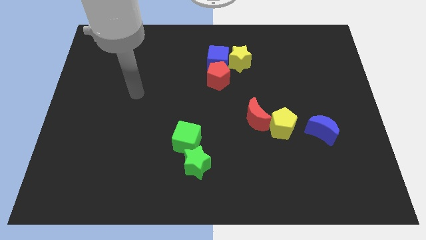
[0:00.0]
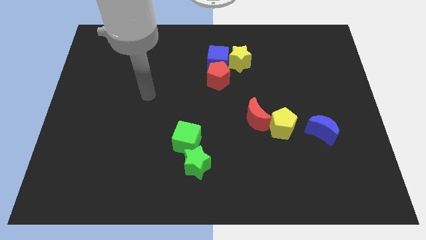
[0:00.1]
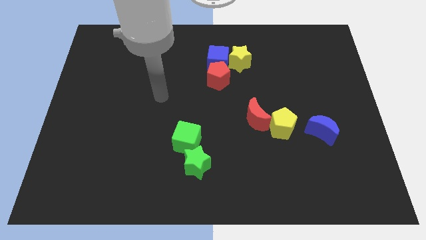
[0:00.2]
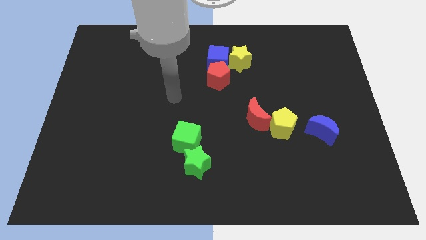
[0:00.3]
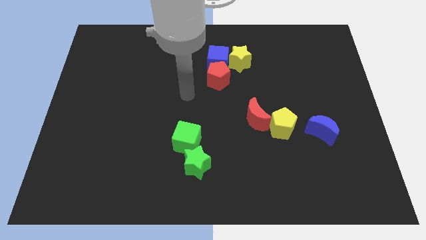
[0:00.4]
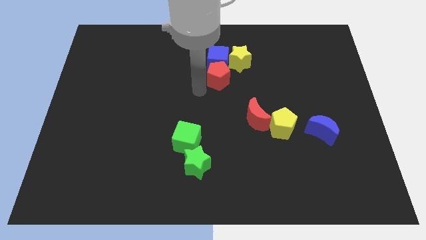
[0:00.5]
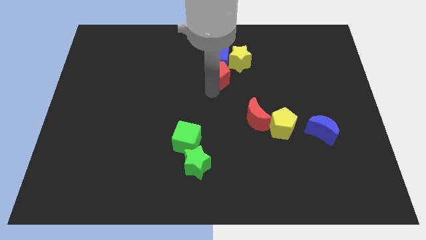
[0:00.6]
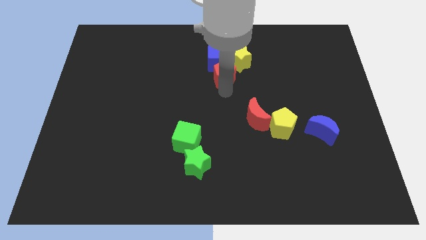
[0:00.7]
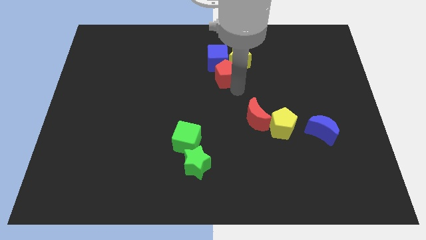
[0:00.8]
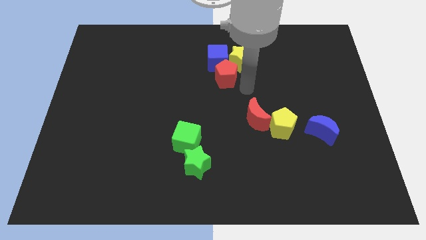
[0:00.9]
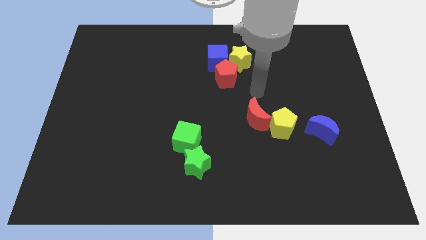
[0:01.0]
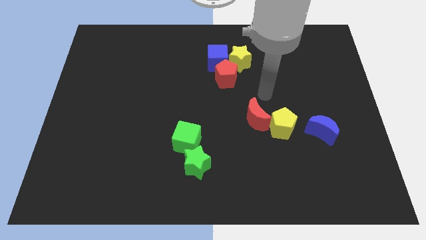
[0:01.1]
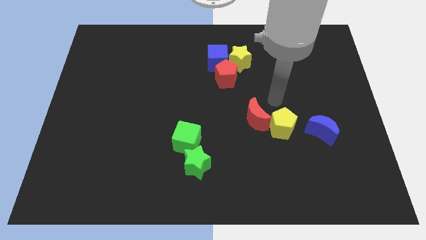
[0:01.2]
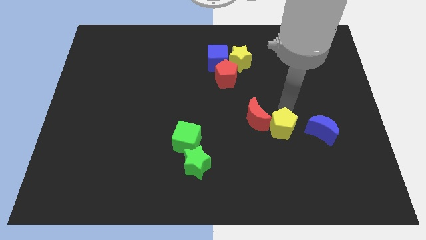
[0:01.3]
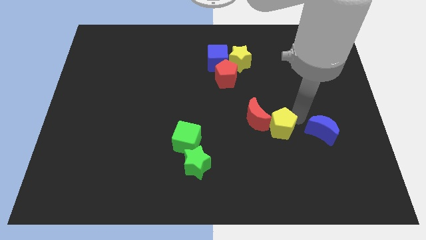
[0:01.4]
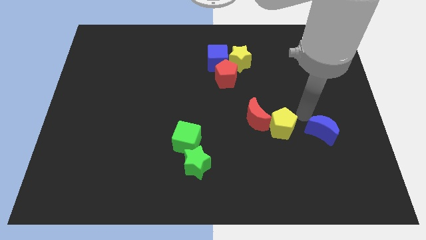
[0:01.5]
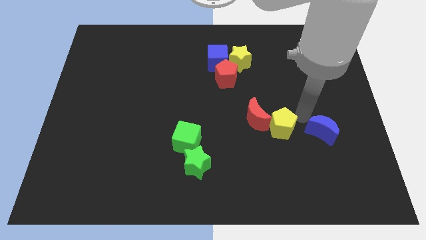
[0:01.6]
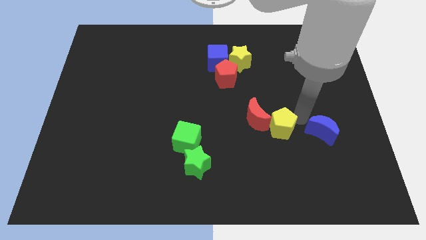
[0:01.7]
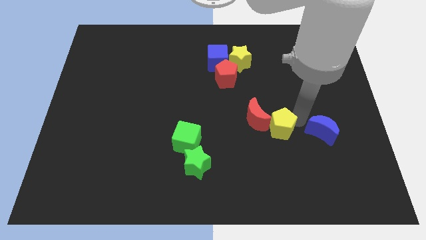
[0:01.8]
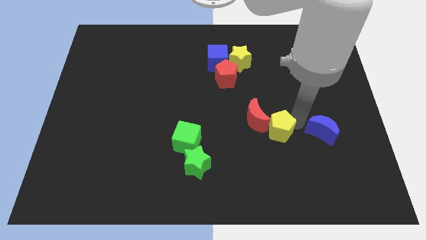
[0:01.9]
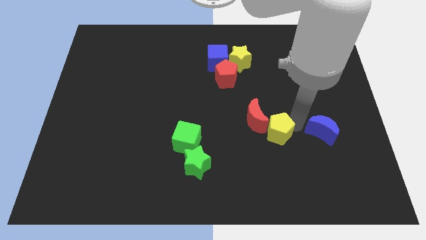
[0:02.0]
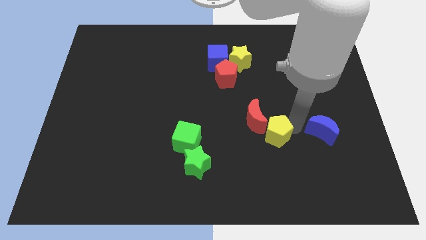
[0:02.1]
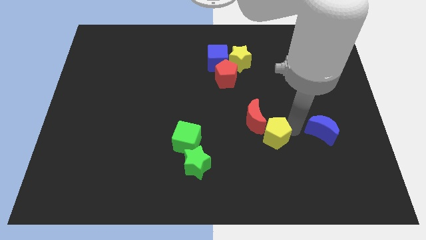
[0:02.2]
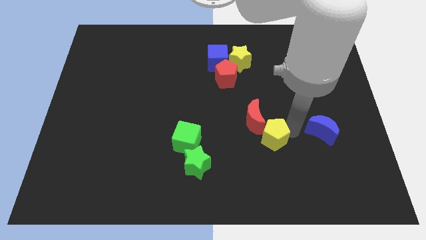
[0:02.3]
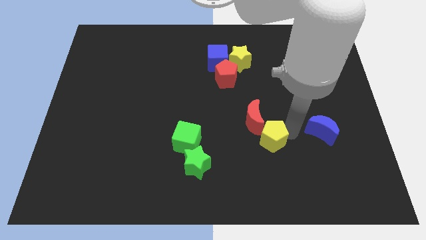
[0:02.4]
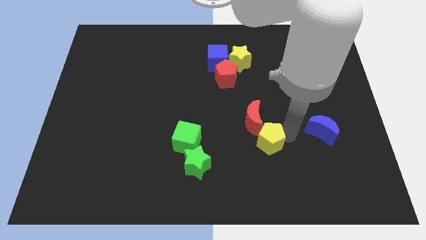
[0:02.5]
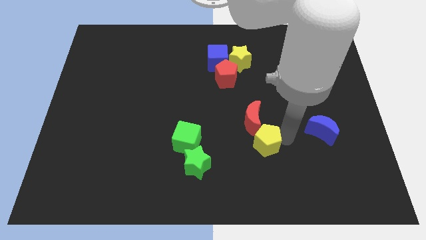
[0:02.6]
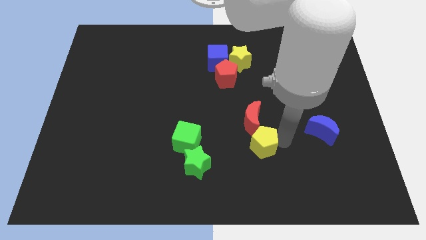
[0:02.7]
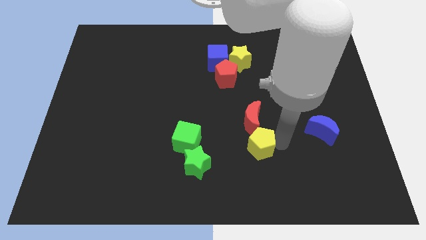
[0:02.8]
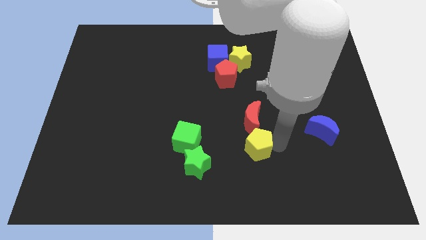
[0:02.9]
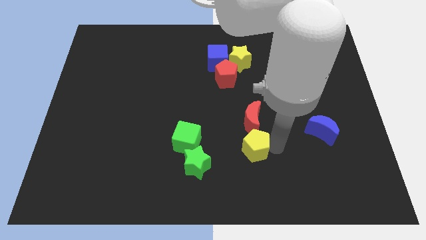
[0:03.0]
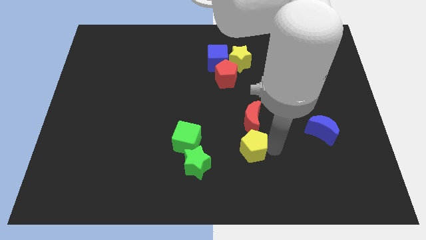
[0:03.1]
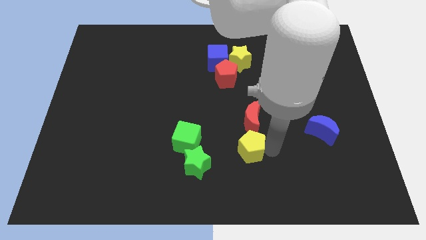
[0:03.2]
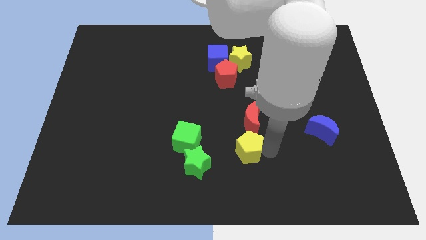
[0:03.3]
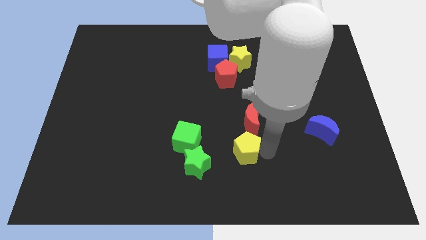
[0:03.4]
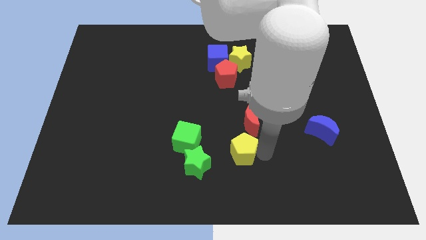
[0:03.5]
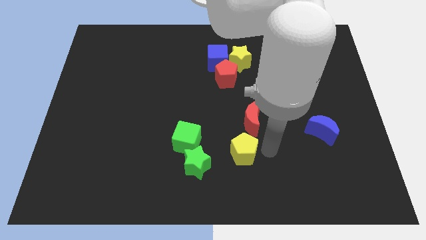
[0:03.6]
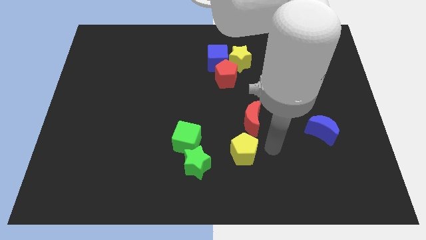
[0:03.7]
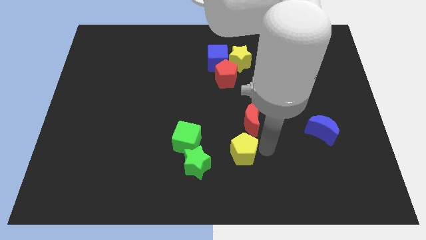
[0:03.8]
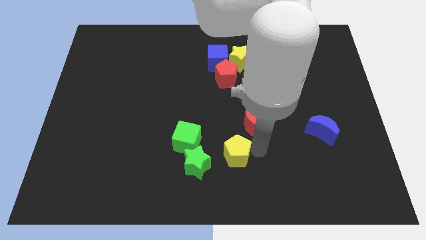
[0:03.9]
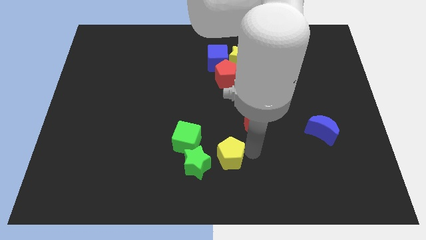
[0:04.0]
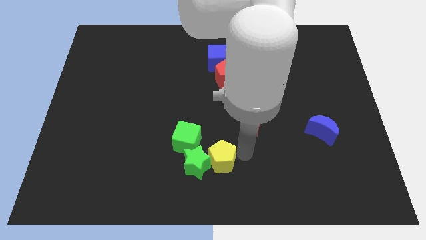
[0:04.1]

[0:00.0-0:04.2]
push the yellow pentagon next to the green star

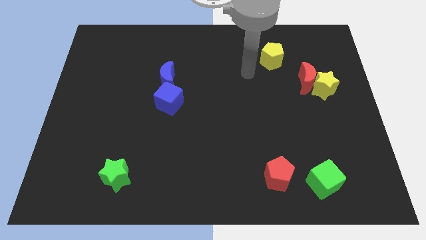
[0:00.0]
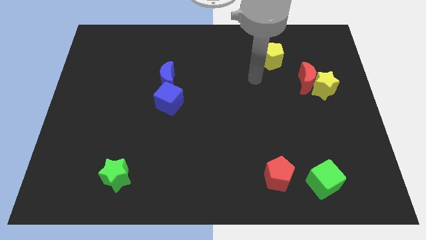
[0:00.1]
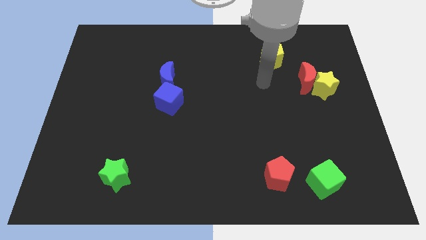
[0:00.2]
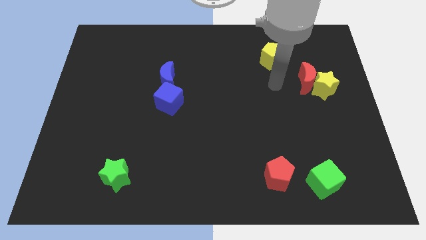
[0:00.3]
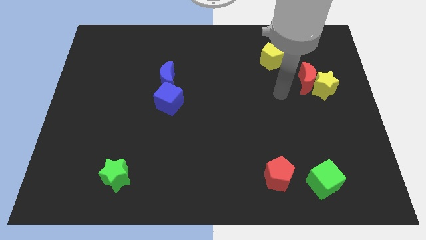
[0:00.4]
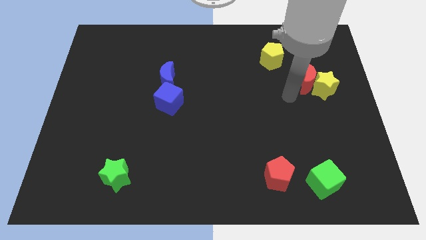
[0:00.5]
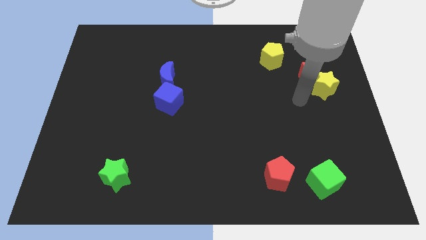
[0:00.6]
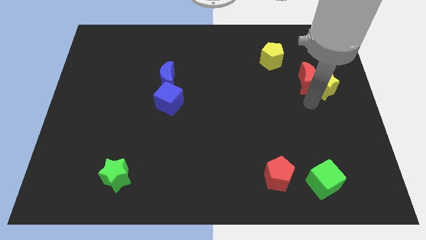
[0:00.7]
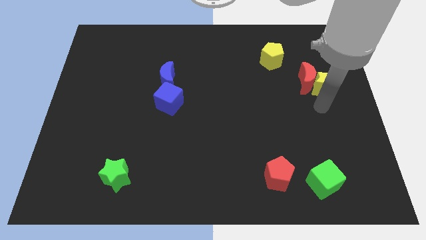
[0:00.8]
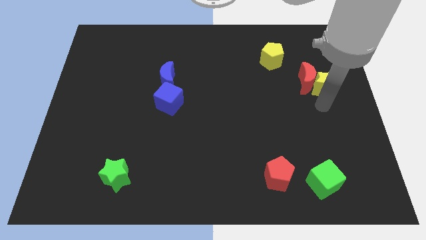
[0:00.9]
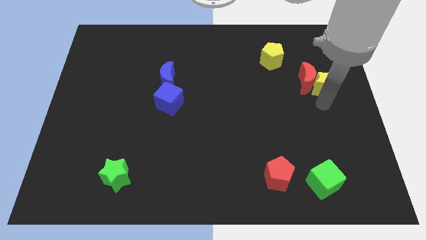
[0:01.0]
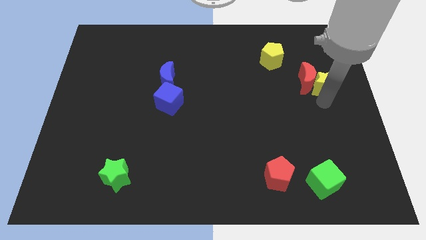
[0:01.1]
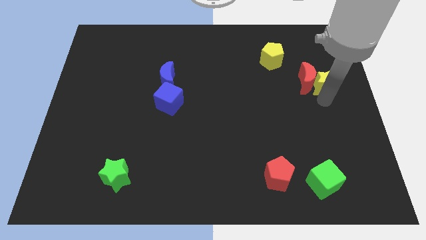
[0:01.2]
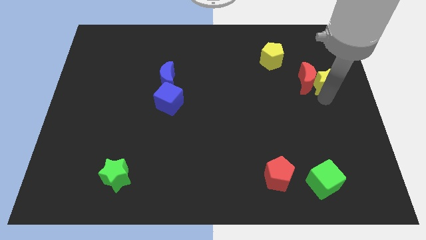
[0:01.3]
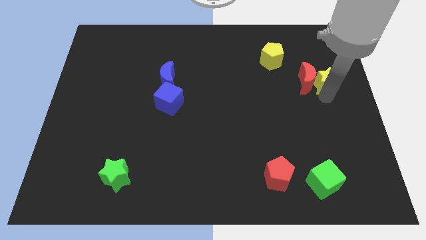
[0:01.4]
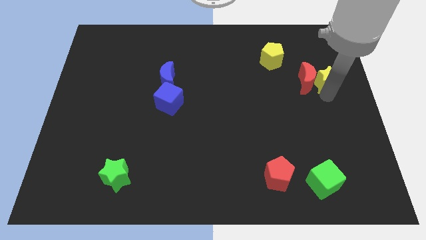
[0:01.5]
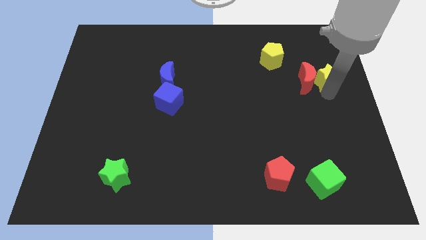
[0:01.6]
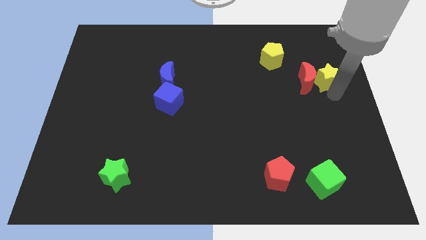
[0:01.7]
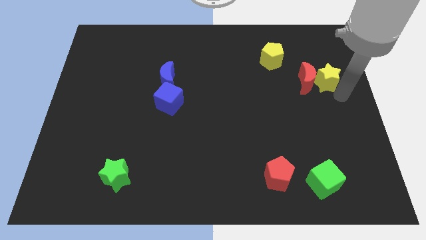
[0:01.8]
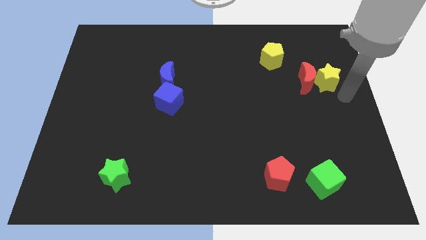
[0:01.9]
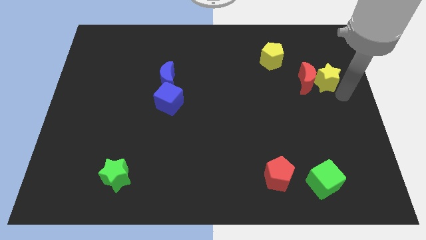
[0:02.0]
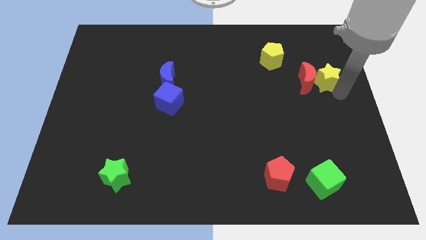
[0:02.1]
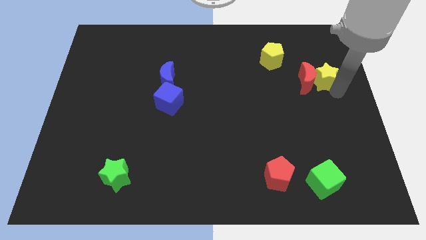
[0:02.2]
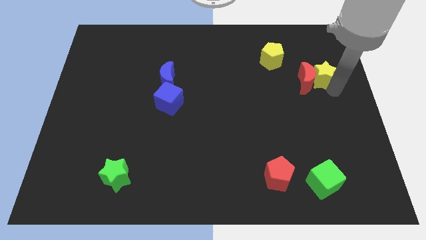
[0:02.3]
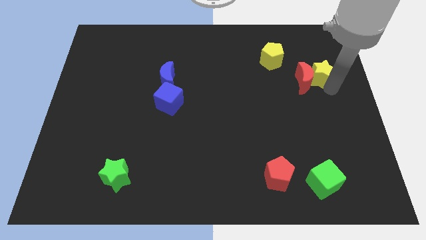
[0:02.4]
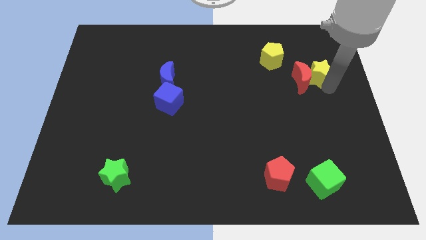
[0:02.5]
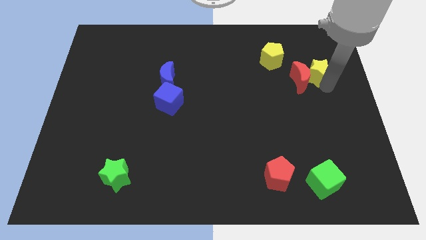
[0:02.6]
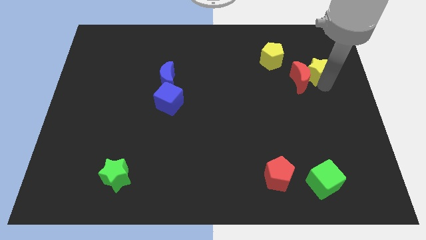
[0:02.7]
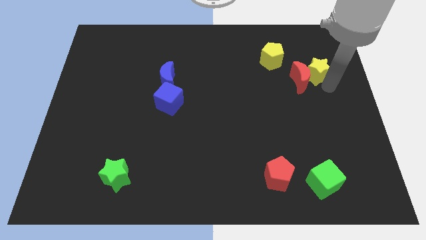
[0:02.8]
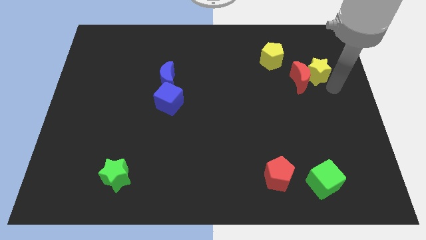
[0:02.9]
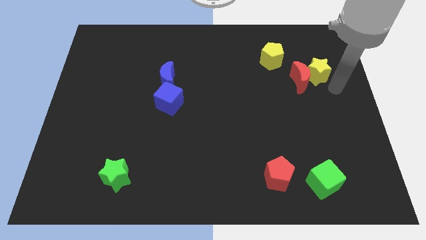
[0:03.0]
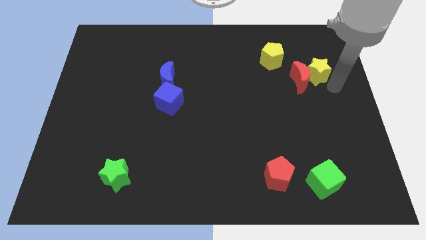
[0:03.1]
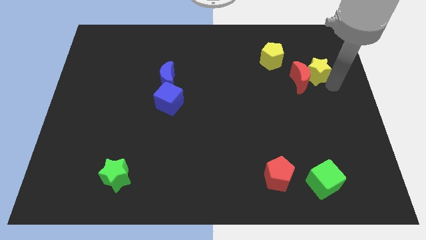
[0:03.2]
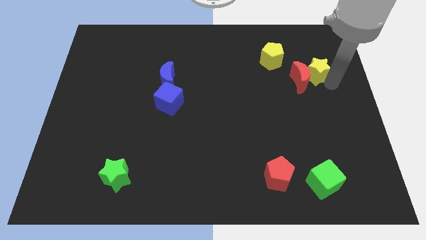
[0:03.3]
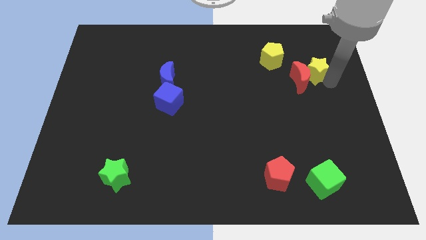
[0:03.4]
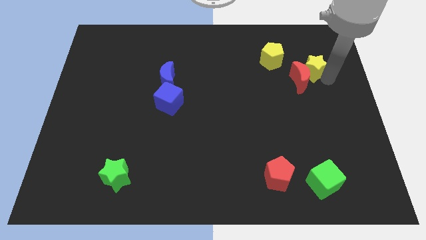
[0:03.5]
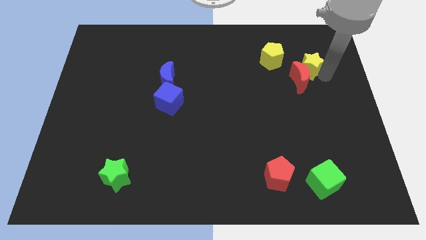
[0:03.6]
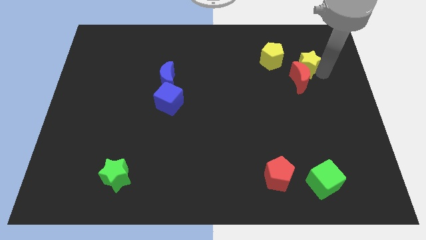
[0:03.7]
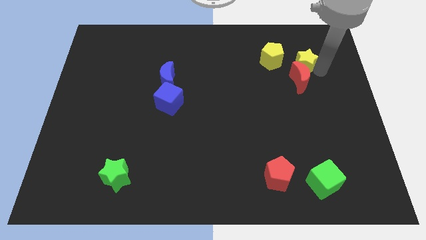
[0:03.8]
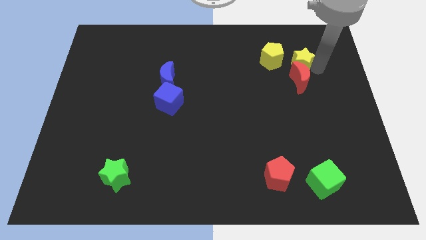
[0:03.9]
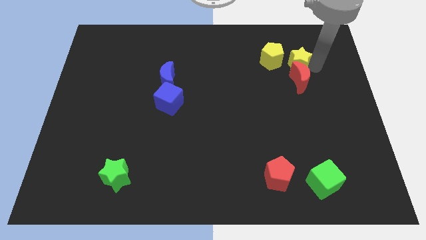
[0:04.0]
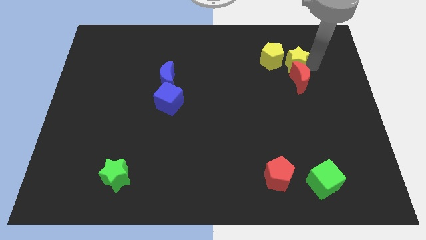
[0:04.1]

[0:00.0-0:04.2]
move the yellow star close to the yellow pentagon
